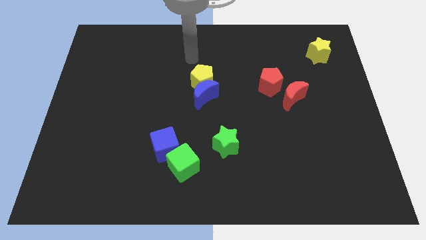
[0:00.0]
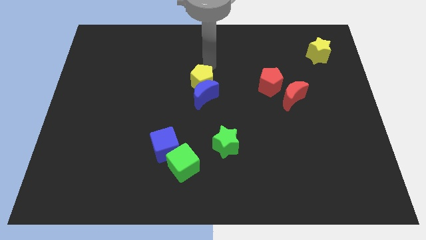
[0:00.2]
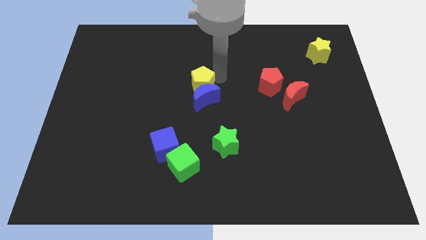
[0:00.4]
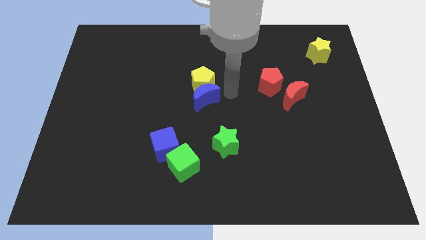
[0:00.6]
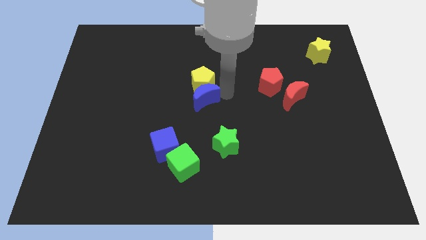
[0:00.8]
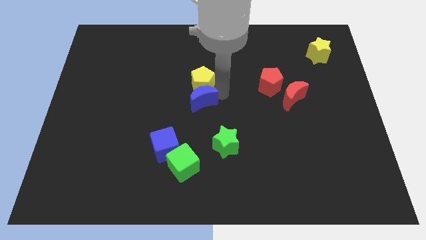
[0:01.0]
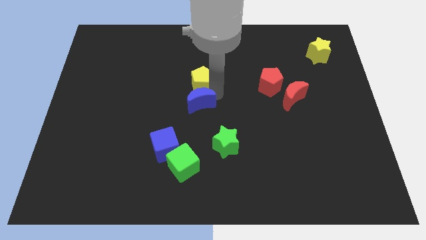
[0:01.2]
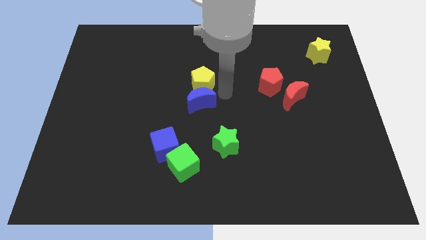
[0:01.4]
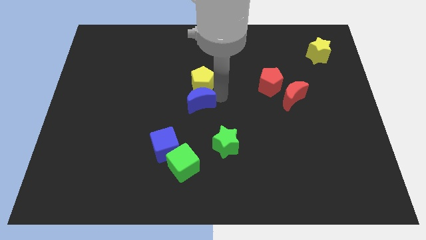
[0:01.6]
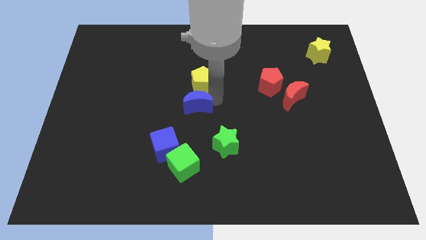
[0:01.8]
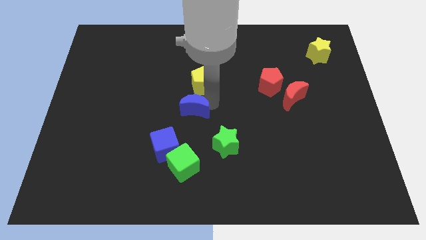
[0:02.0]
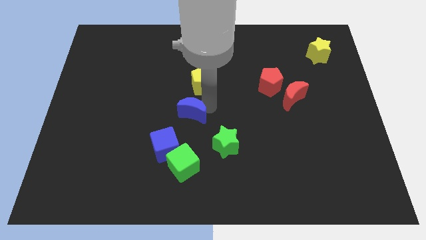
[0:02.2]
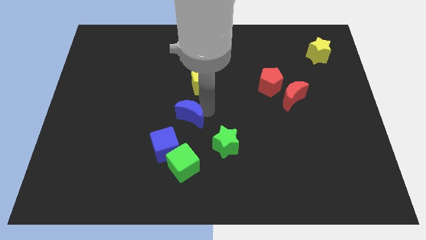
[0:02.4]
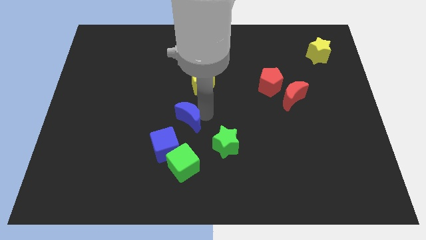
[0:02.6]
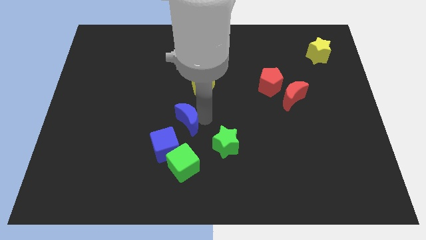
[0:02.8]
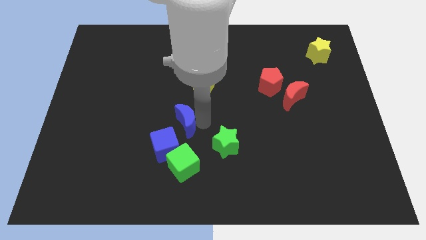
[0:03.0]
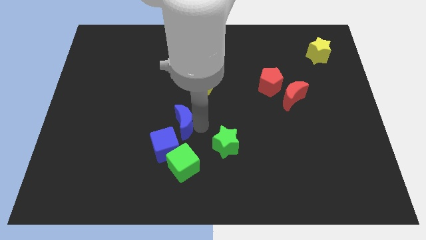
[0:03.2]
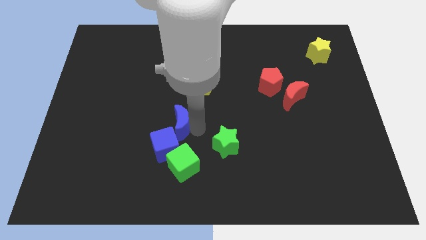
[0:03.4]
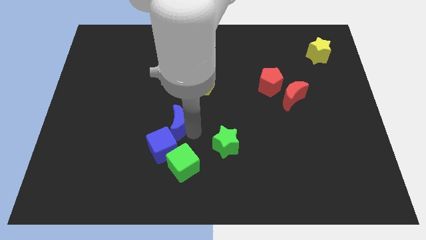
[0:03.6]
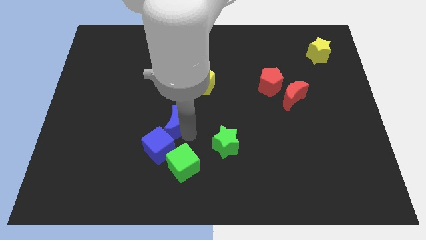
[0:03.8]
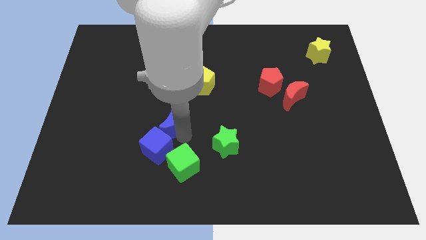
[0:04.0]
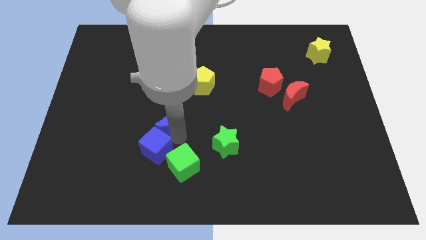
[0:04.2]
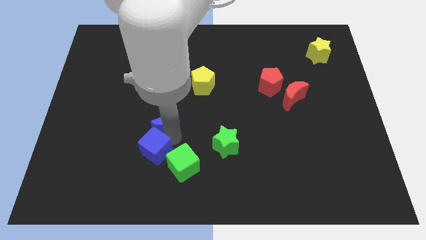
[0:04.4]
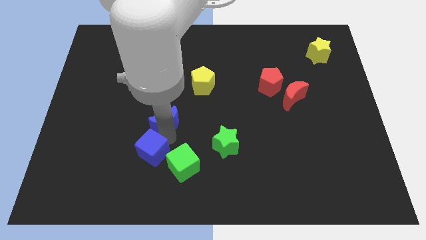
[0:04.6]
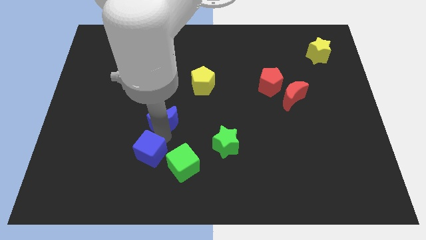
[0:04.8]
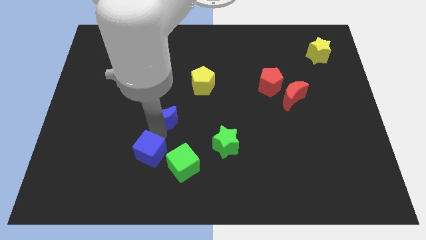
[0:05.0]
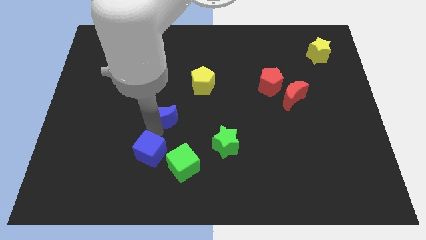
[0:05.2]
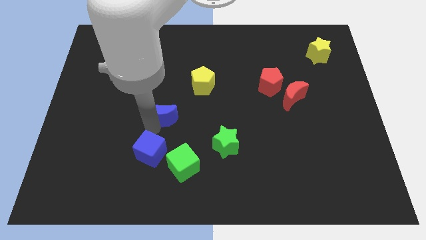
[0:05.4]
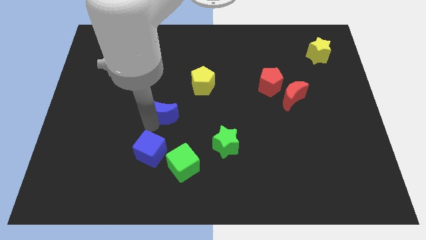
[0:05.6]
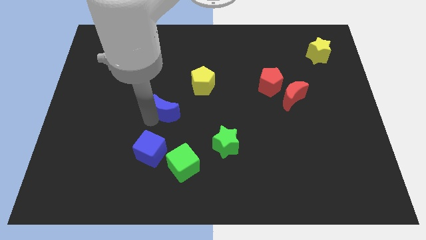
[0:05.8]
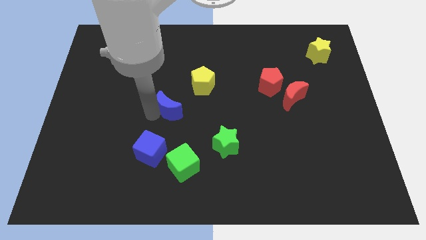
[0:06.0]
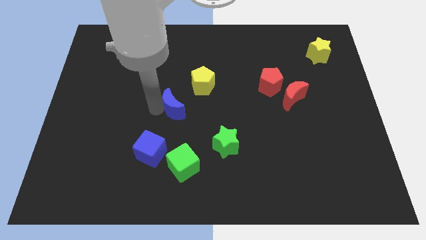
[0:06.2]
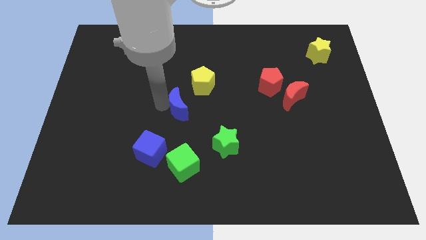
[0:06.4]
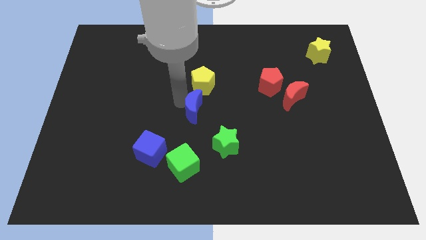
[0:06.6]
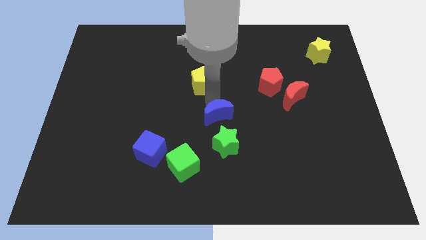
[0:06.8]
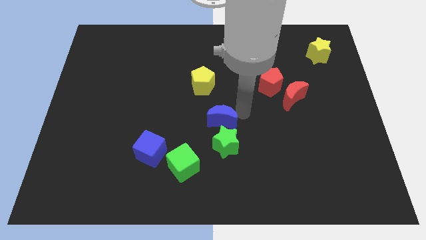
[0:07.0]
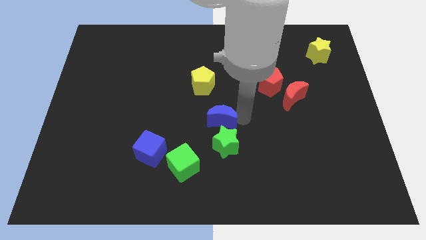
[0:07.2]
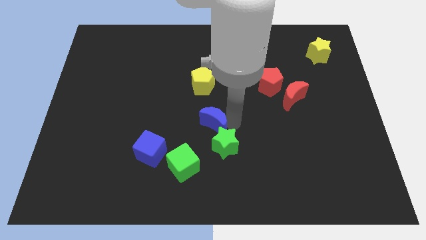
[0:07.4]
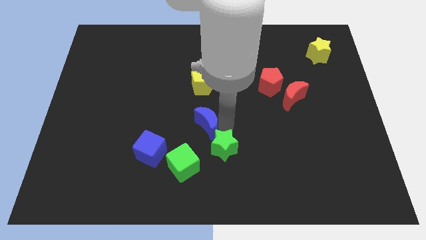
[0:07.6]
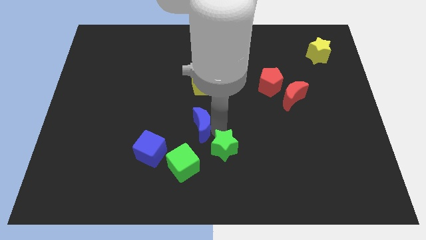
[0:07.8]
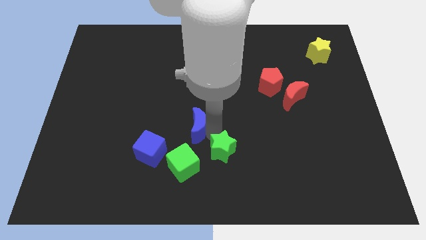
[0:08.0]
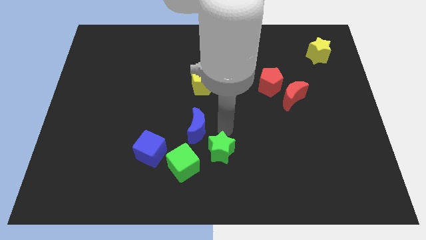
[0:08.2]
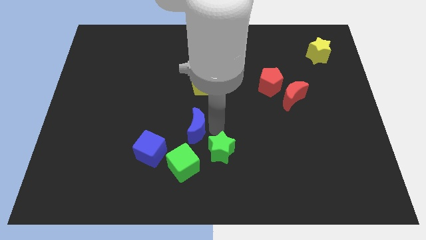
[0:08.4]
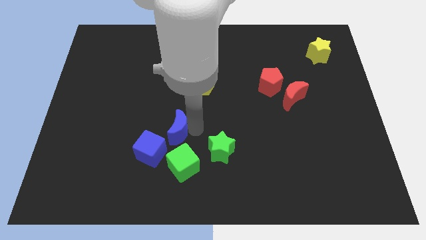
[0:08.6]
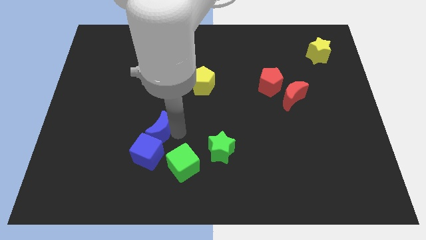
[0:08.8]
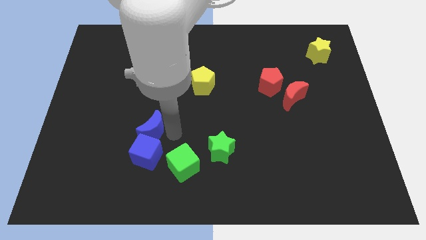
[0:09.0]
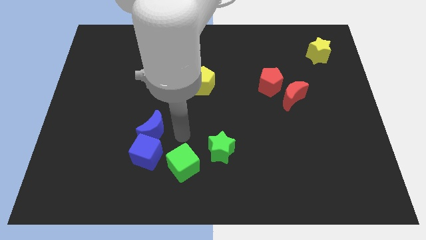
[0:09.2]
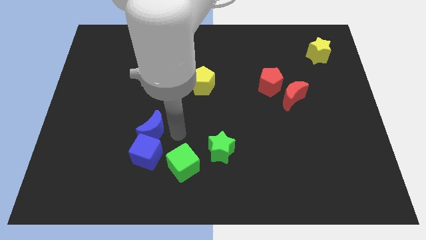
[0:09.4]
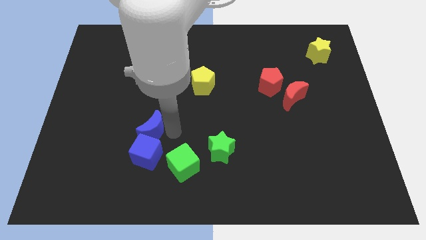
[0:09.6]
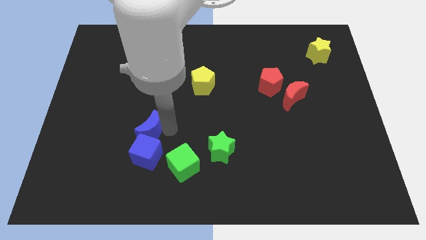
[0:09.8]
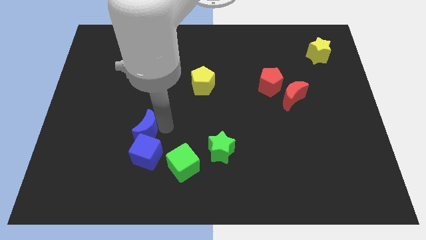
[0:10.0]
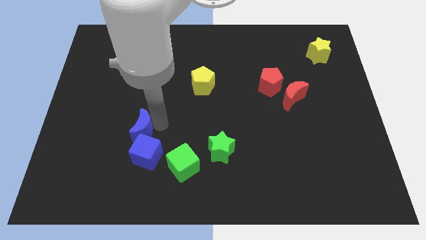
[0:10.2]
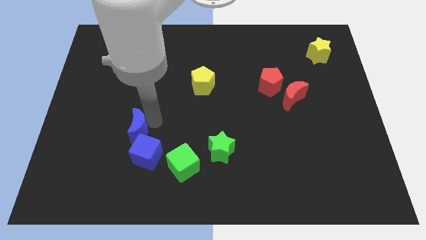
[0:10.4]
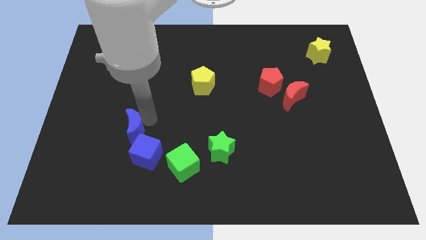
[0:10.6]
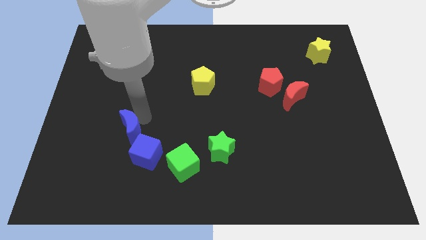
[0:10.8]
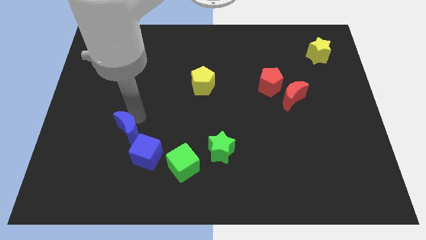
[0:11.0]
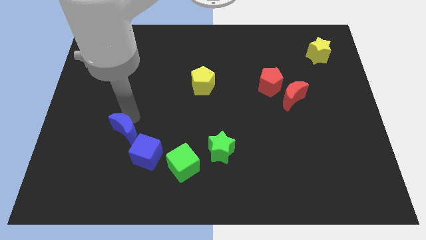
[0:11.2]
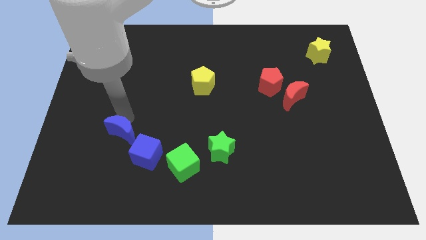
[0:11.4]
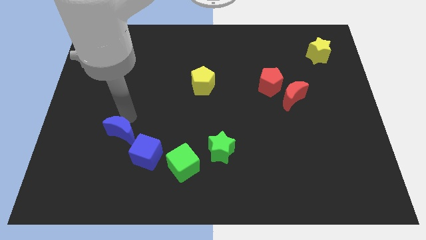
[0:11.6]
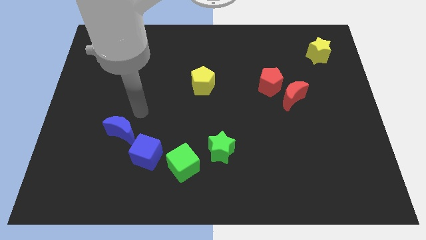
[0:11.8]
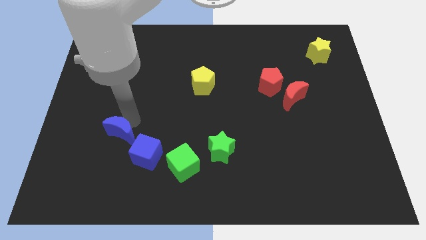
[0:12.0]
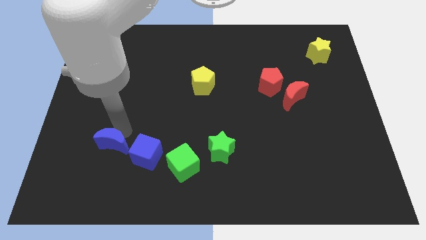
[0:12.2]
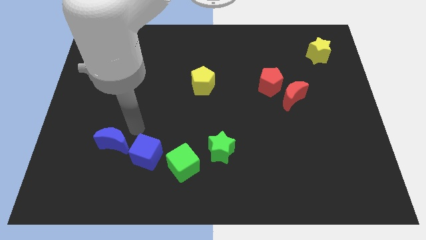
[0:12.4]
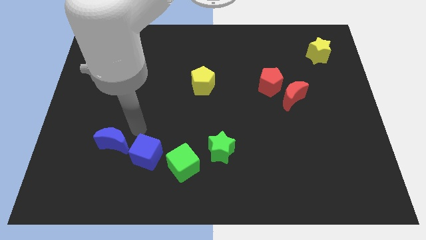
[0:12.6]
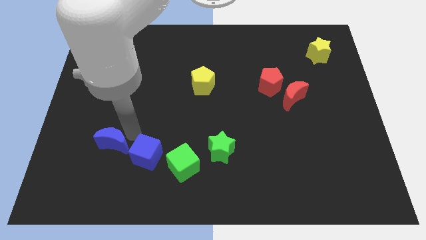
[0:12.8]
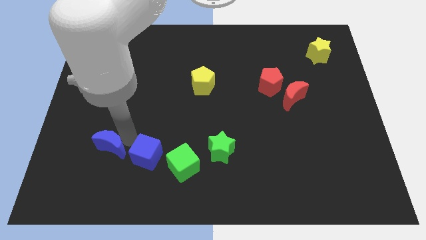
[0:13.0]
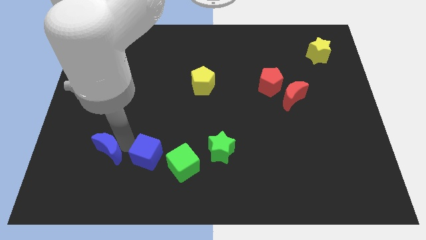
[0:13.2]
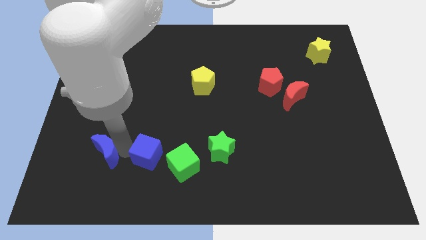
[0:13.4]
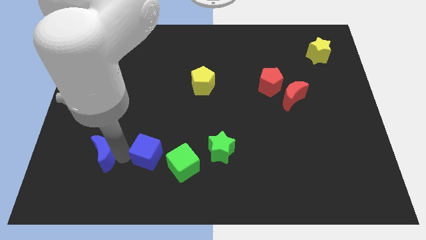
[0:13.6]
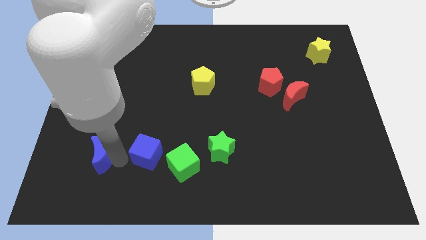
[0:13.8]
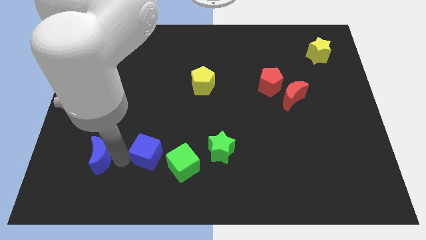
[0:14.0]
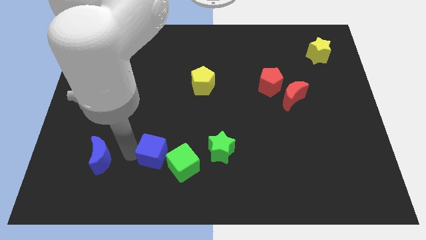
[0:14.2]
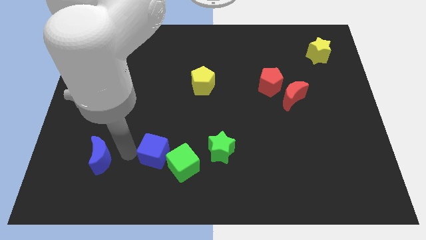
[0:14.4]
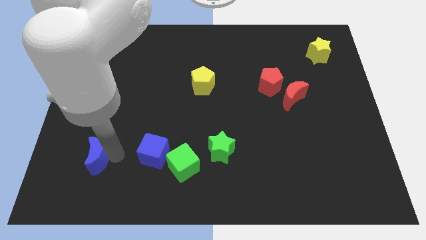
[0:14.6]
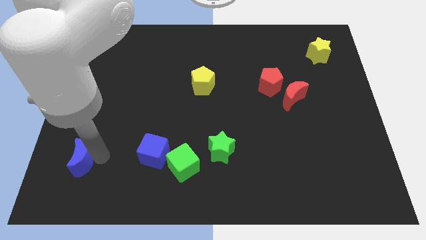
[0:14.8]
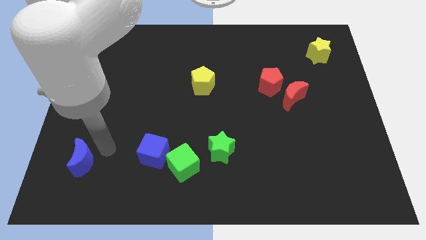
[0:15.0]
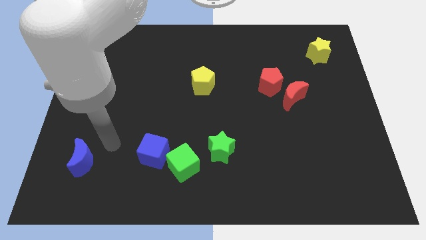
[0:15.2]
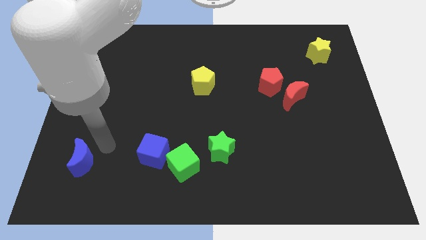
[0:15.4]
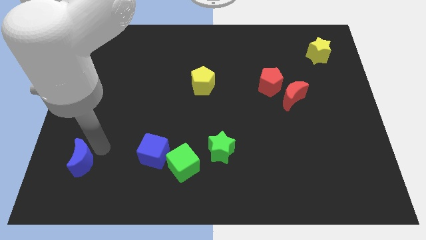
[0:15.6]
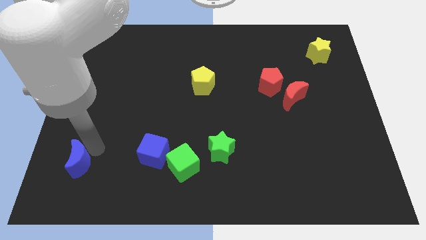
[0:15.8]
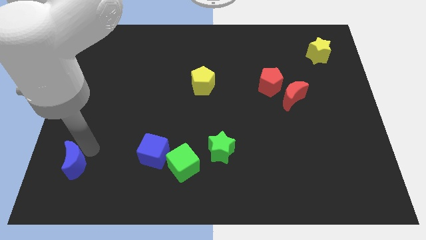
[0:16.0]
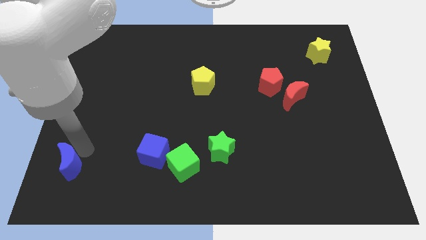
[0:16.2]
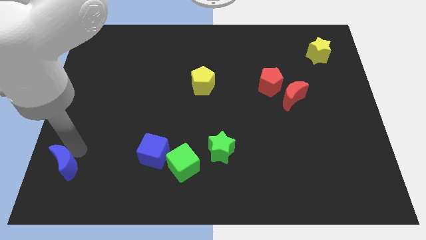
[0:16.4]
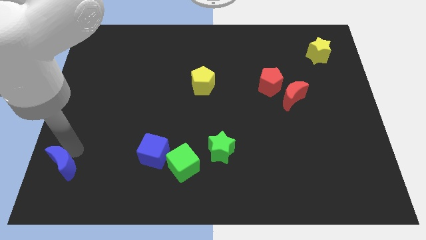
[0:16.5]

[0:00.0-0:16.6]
put the blue moon to the lower left corner
